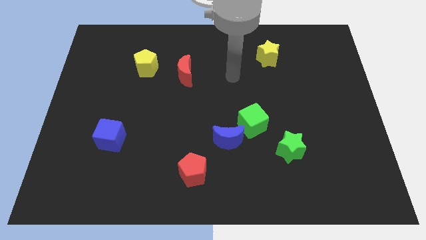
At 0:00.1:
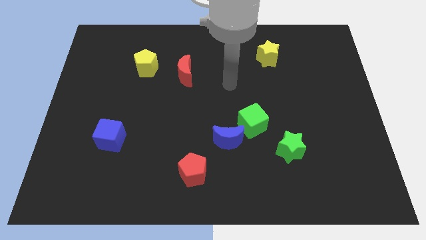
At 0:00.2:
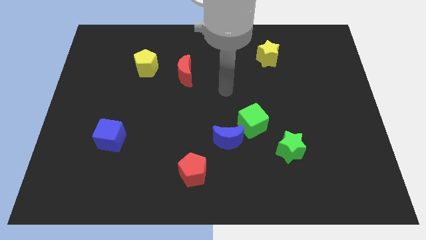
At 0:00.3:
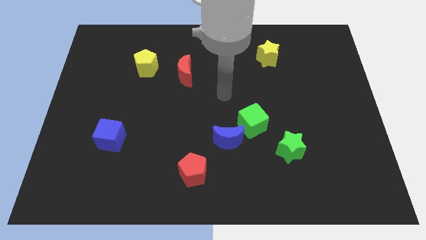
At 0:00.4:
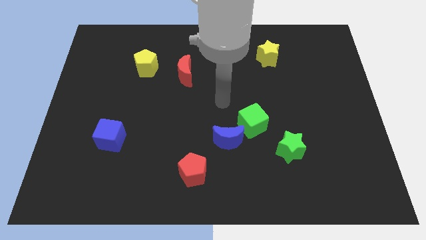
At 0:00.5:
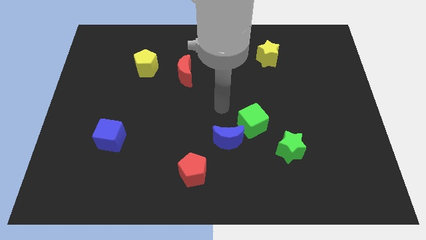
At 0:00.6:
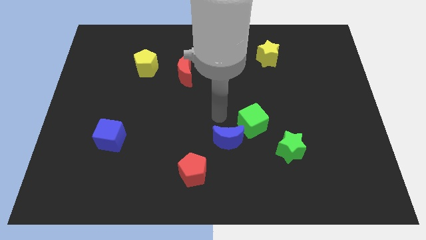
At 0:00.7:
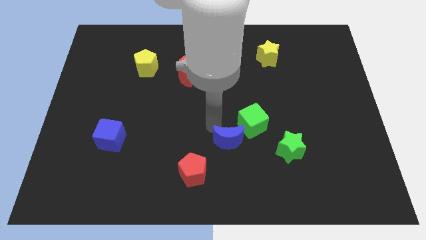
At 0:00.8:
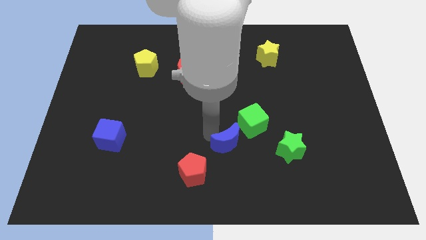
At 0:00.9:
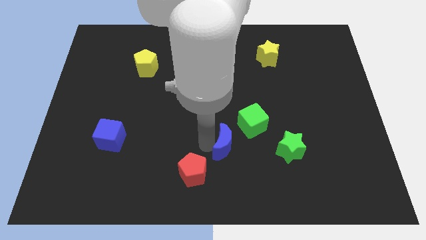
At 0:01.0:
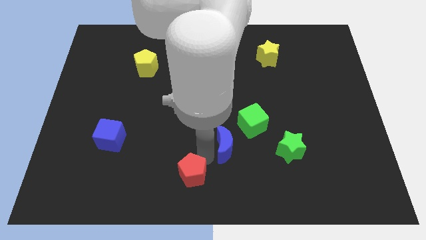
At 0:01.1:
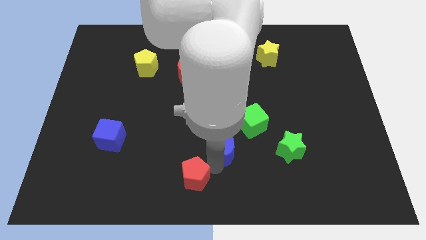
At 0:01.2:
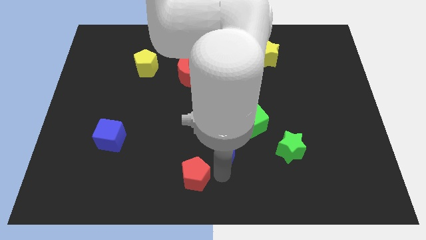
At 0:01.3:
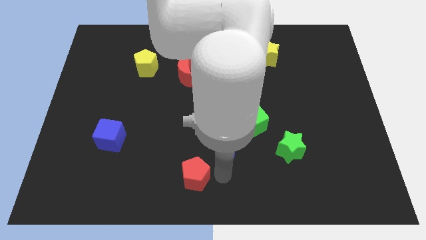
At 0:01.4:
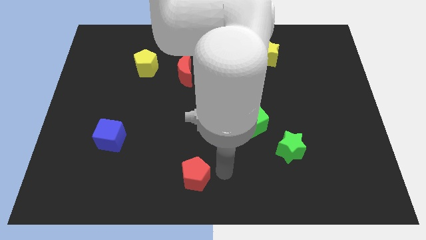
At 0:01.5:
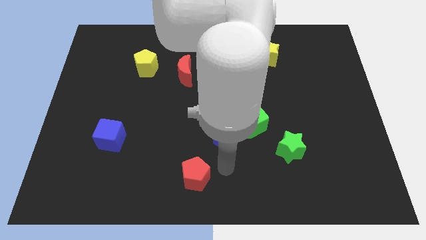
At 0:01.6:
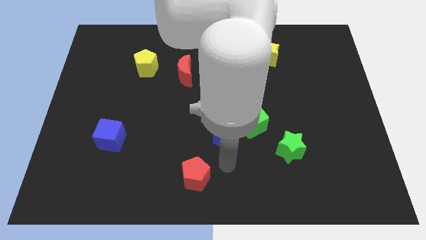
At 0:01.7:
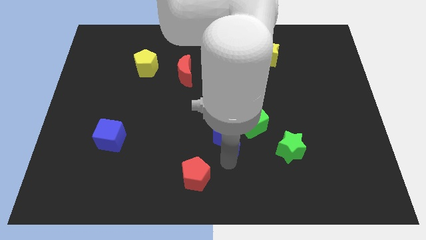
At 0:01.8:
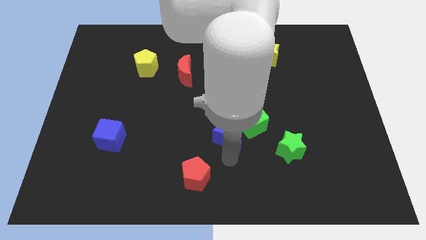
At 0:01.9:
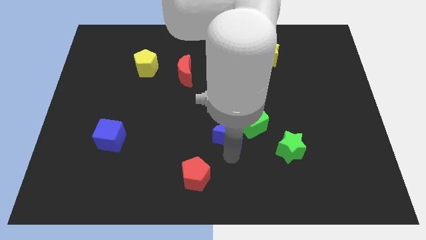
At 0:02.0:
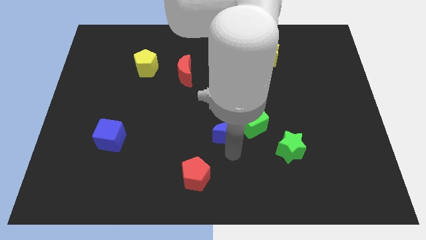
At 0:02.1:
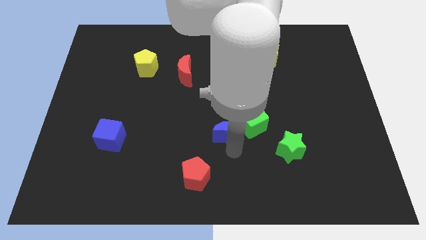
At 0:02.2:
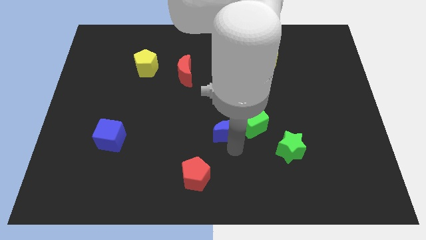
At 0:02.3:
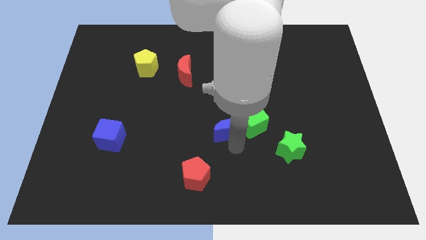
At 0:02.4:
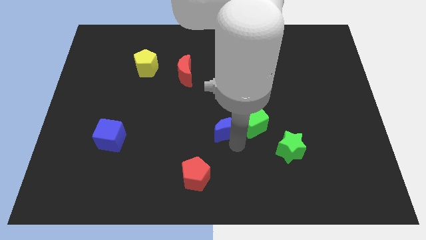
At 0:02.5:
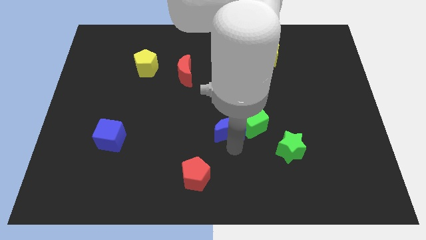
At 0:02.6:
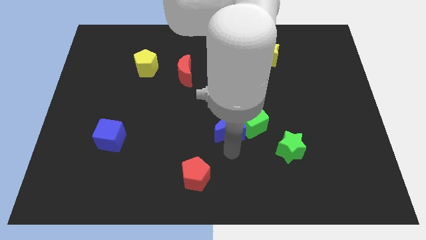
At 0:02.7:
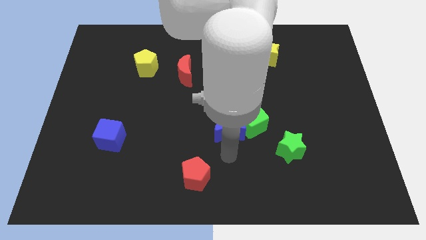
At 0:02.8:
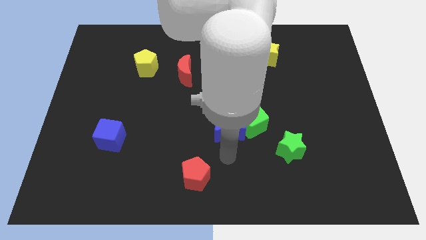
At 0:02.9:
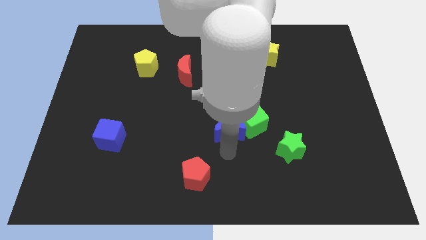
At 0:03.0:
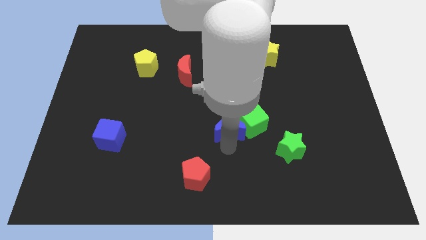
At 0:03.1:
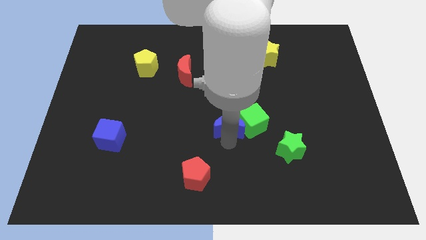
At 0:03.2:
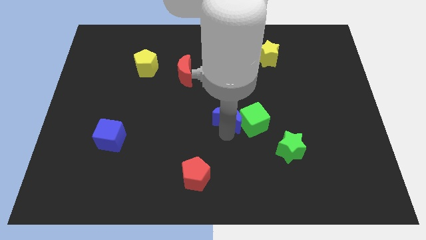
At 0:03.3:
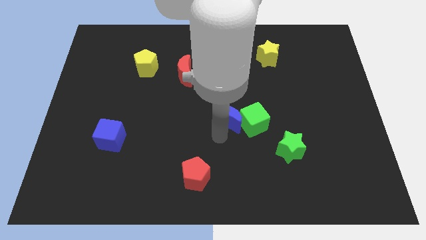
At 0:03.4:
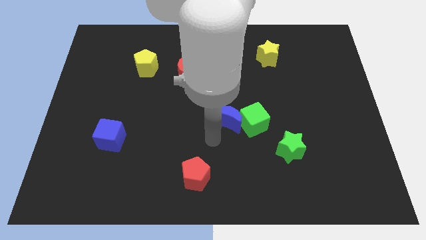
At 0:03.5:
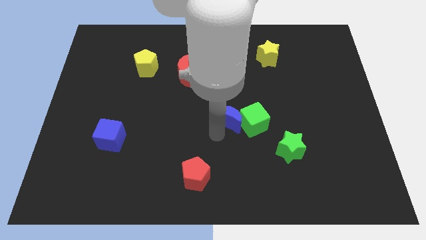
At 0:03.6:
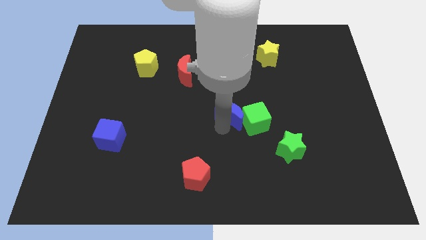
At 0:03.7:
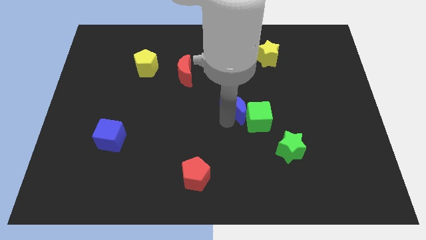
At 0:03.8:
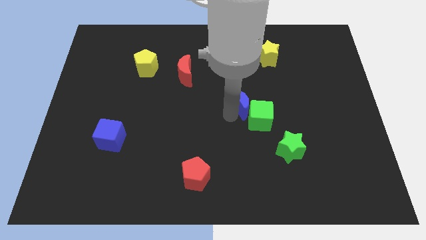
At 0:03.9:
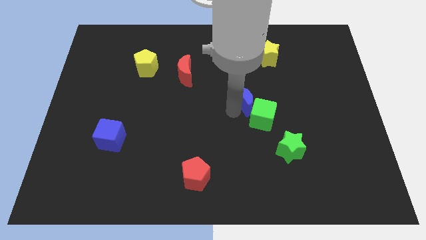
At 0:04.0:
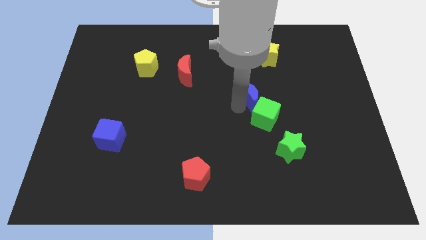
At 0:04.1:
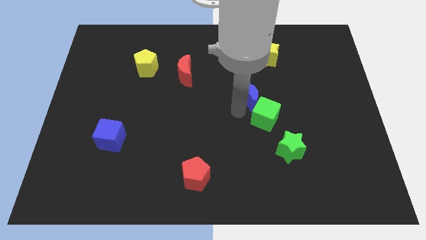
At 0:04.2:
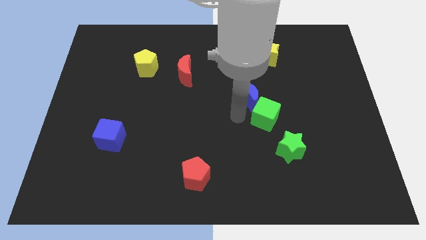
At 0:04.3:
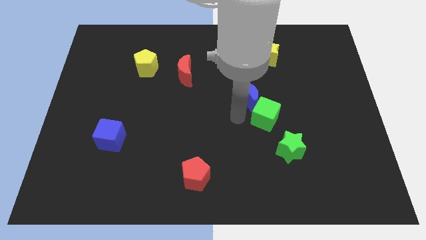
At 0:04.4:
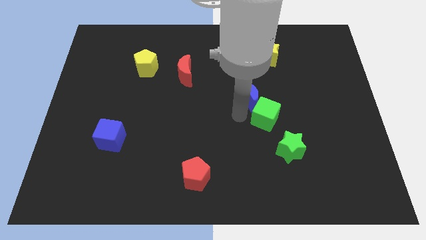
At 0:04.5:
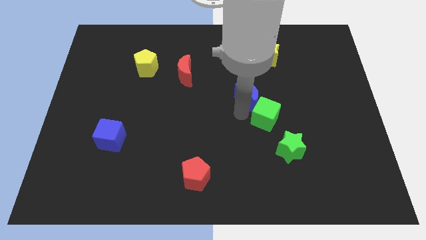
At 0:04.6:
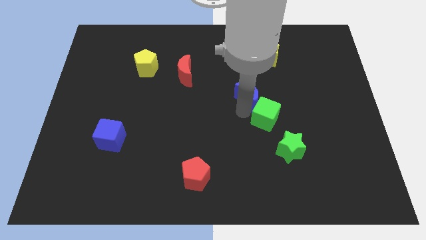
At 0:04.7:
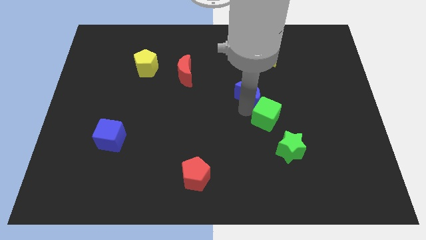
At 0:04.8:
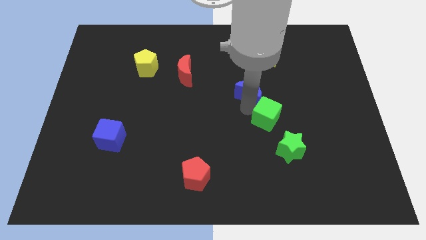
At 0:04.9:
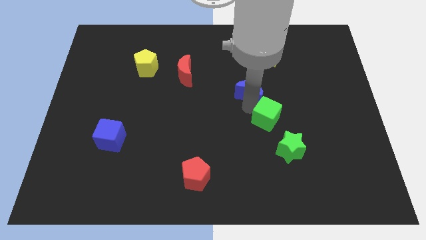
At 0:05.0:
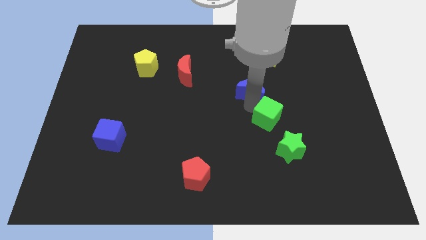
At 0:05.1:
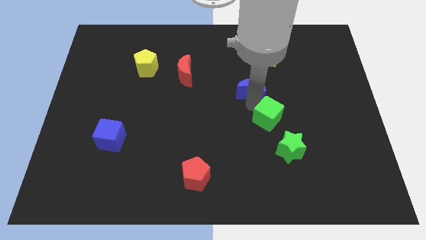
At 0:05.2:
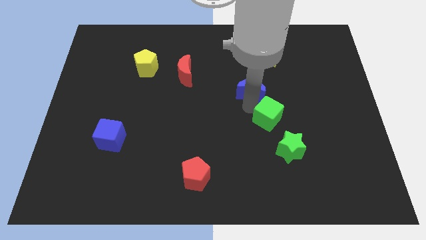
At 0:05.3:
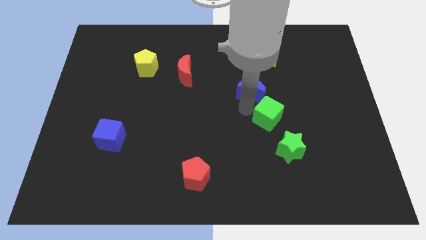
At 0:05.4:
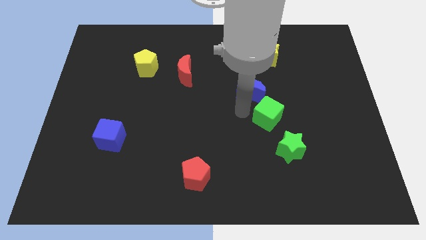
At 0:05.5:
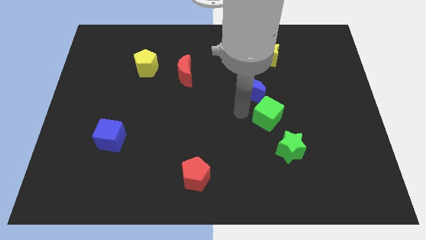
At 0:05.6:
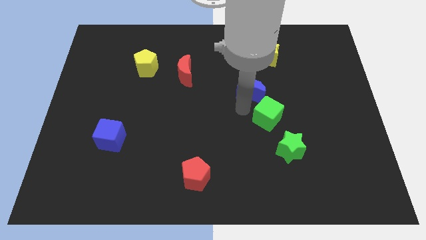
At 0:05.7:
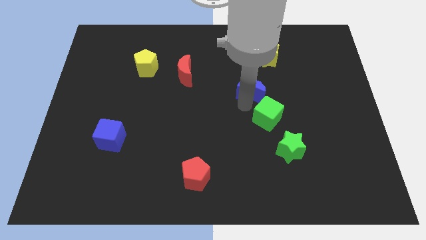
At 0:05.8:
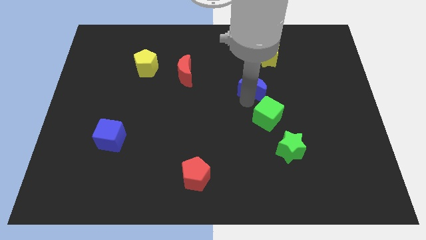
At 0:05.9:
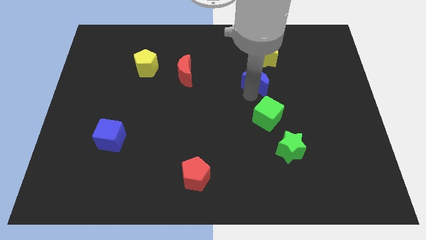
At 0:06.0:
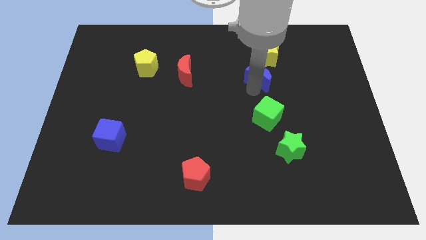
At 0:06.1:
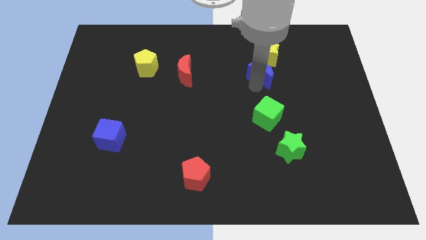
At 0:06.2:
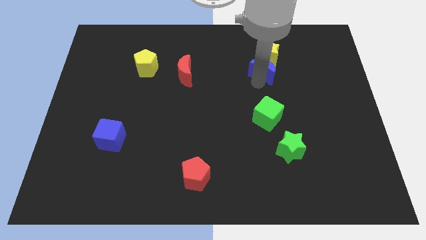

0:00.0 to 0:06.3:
move the blue moon to the yellow star

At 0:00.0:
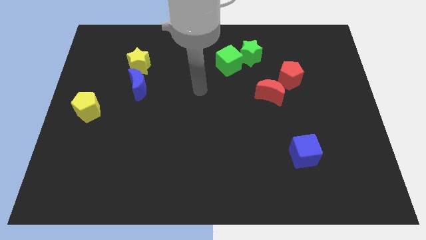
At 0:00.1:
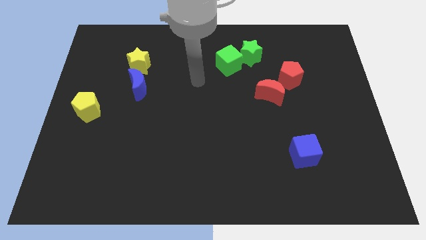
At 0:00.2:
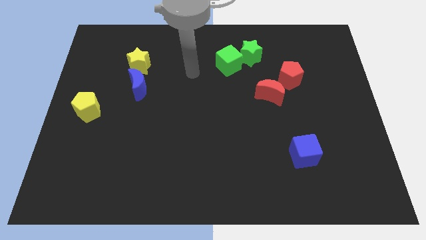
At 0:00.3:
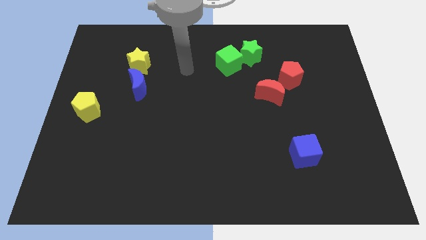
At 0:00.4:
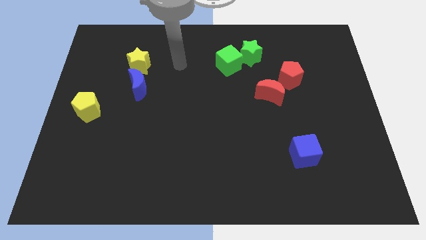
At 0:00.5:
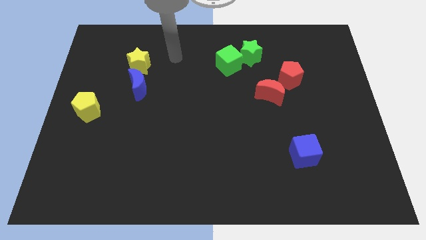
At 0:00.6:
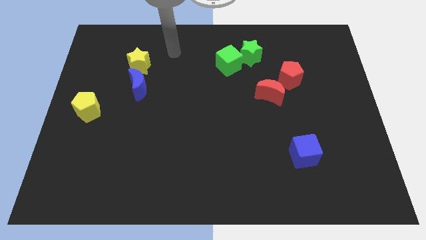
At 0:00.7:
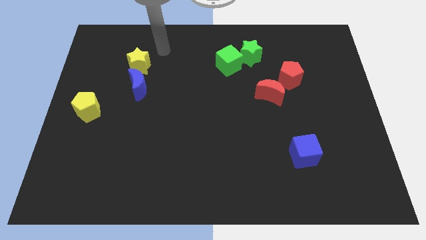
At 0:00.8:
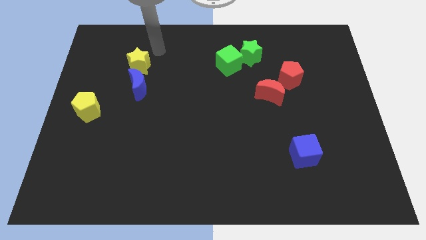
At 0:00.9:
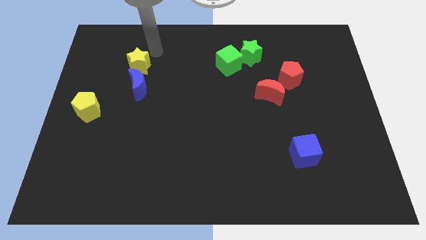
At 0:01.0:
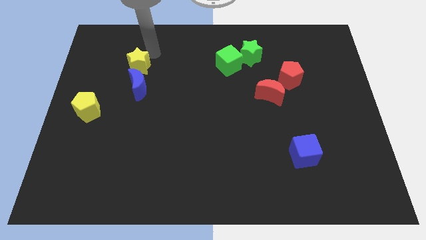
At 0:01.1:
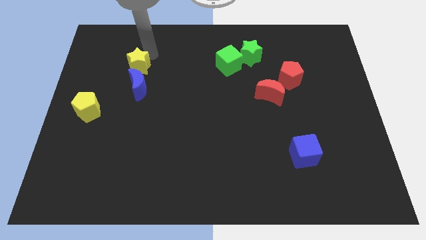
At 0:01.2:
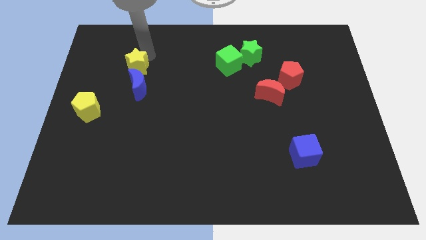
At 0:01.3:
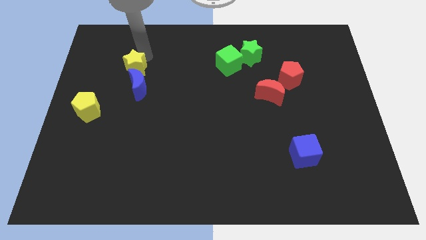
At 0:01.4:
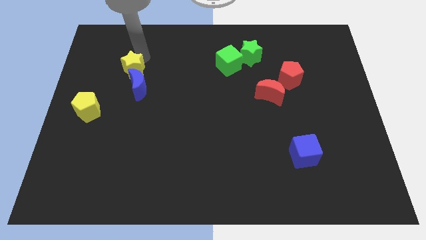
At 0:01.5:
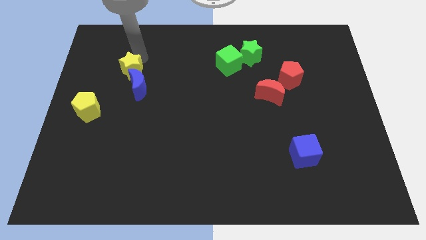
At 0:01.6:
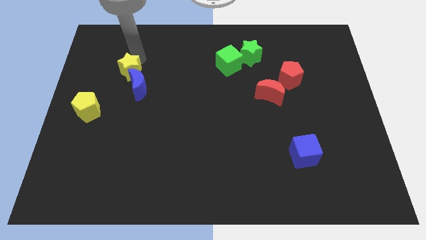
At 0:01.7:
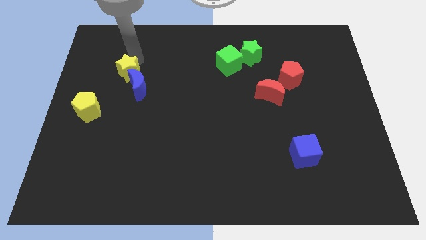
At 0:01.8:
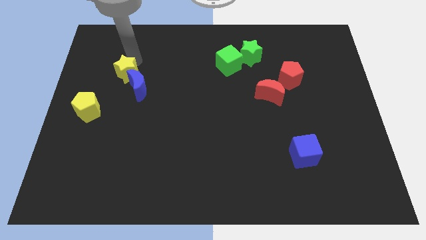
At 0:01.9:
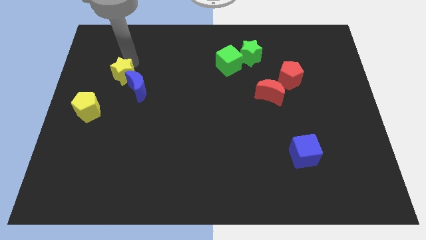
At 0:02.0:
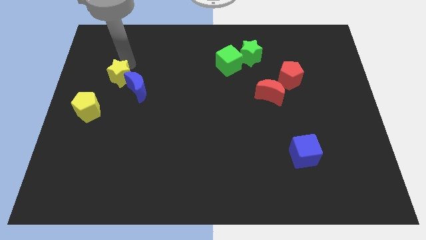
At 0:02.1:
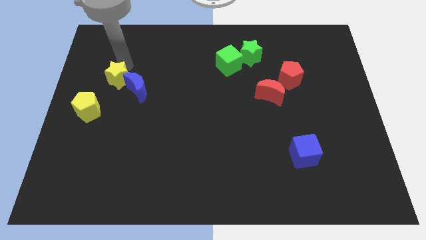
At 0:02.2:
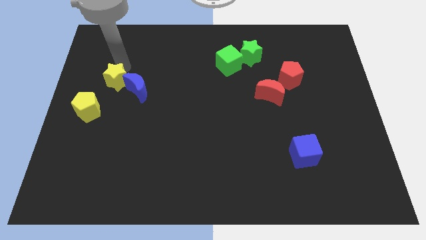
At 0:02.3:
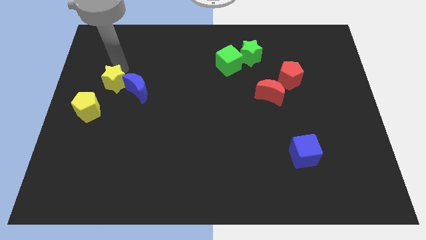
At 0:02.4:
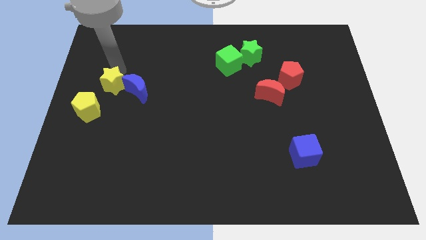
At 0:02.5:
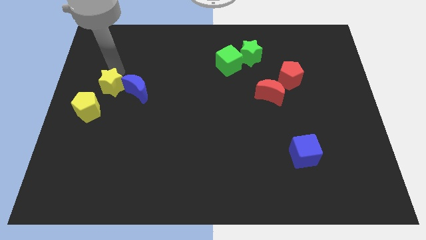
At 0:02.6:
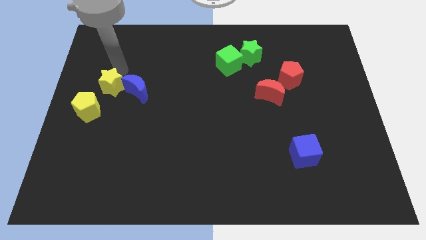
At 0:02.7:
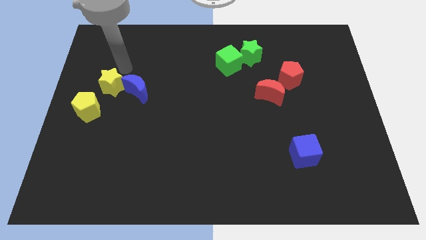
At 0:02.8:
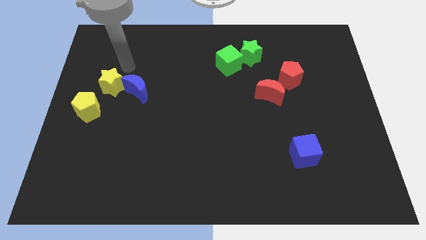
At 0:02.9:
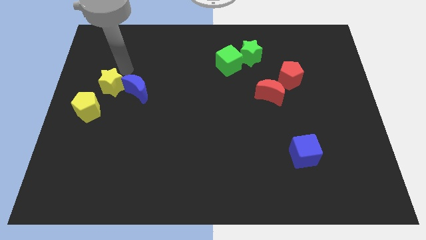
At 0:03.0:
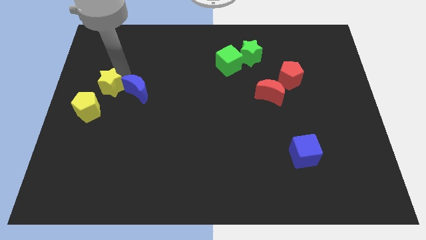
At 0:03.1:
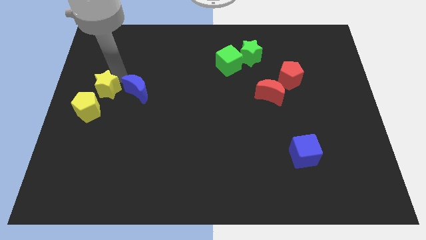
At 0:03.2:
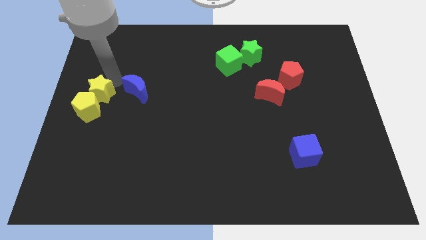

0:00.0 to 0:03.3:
slide the yellow star next to the yellow pentagon
